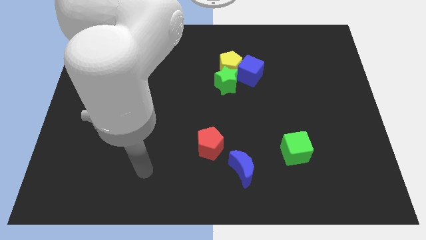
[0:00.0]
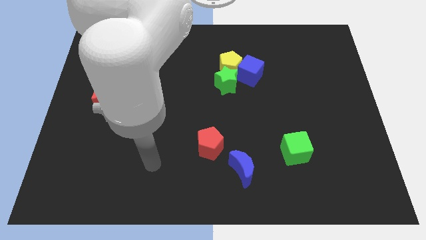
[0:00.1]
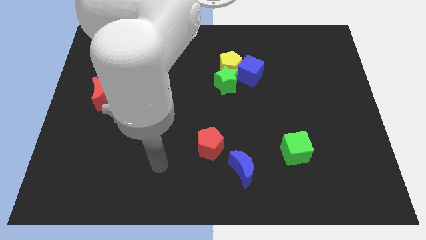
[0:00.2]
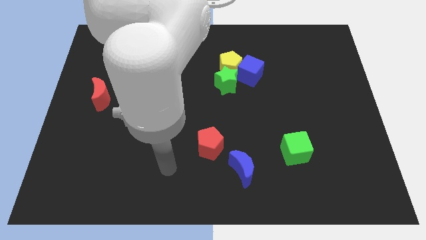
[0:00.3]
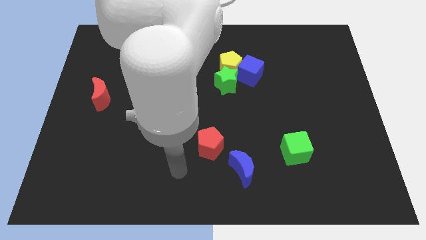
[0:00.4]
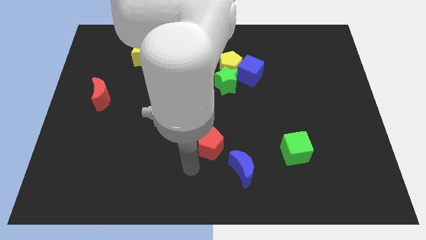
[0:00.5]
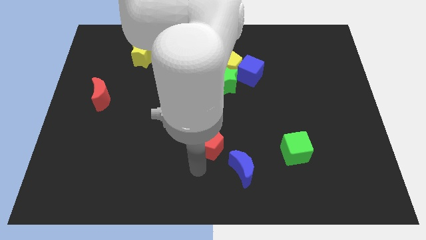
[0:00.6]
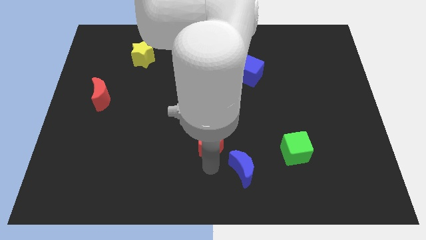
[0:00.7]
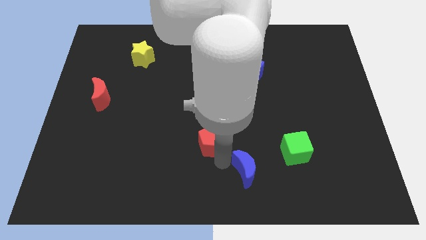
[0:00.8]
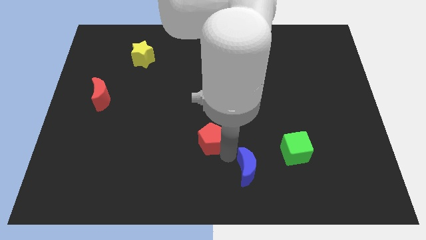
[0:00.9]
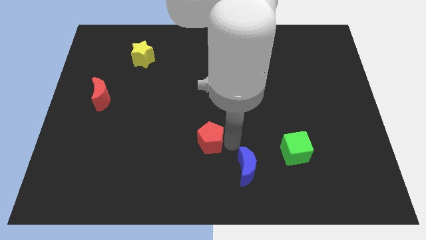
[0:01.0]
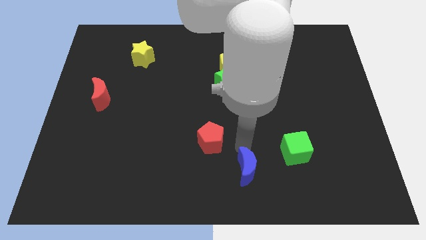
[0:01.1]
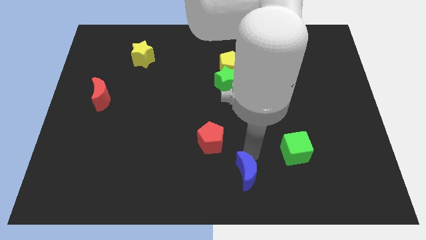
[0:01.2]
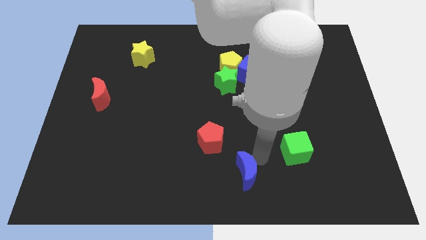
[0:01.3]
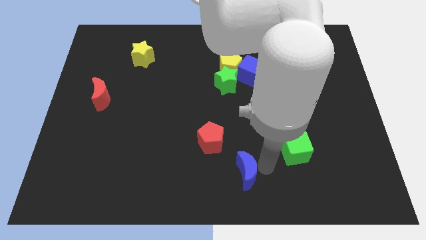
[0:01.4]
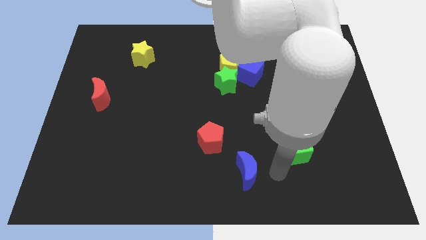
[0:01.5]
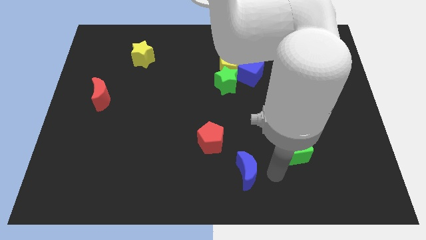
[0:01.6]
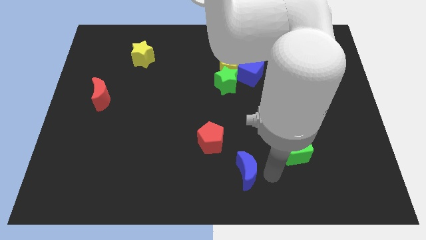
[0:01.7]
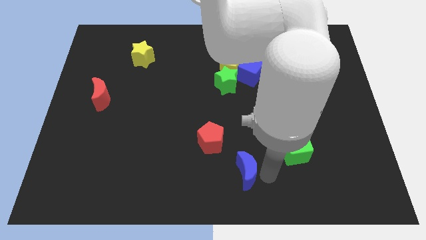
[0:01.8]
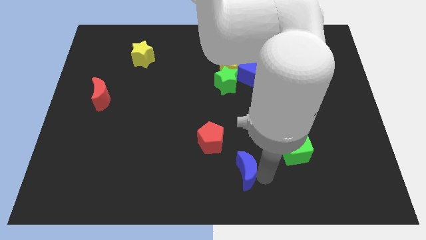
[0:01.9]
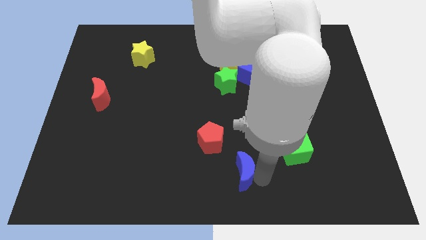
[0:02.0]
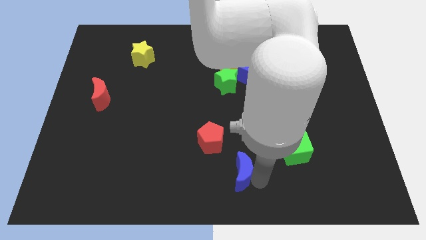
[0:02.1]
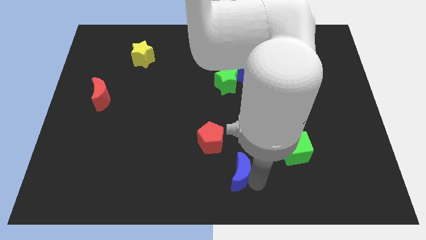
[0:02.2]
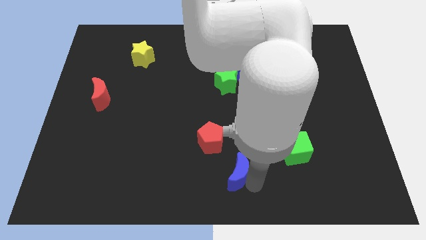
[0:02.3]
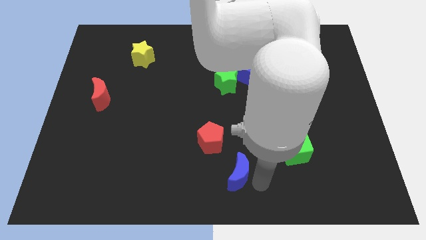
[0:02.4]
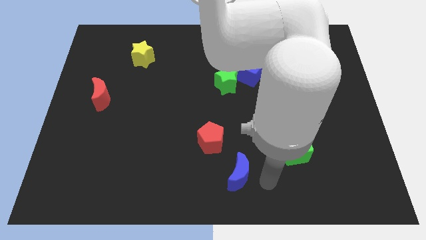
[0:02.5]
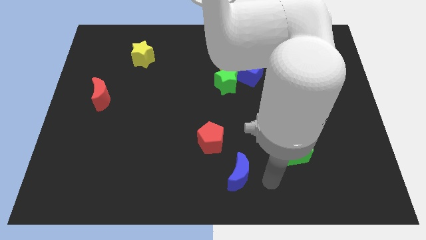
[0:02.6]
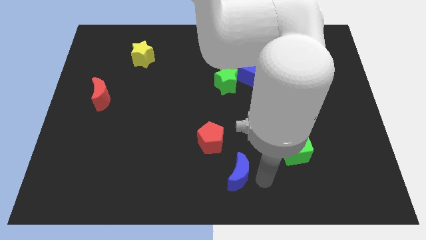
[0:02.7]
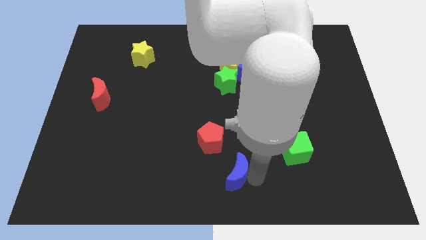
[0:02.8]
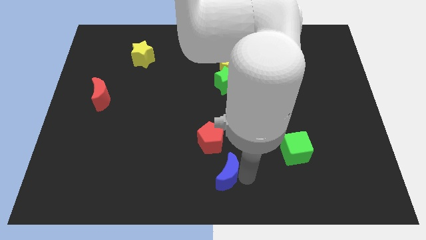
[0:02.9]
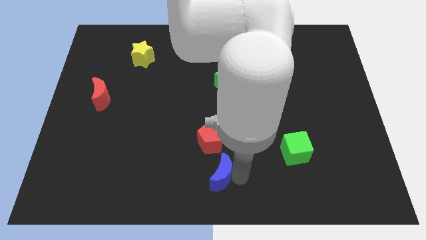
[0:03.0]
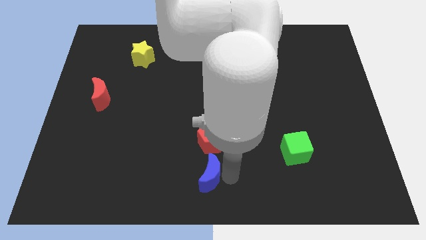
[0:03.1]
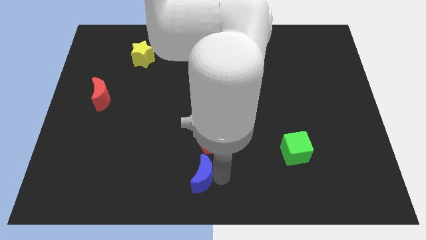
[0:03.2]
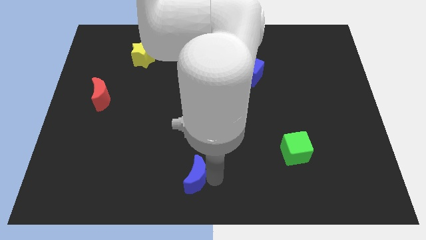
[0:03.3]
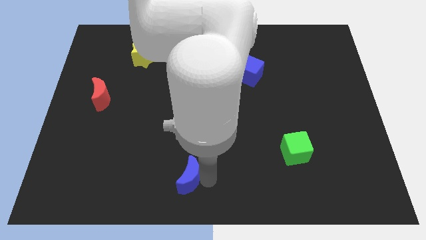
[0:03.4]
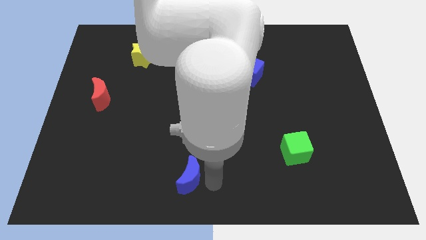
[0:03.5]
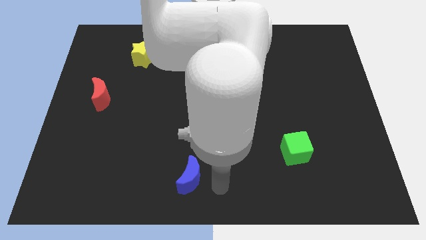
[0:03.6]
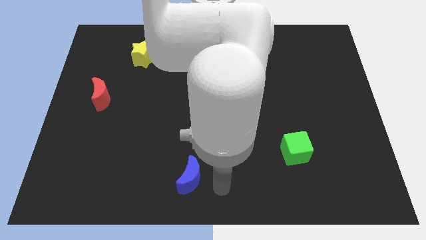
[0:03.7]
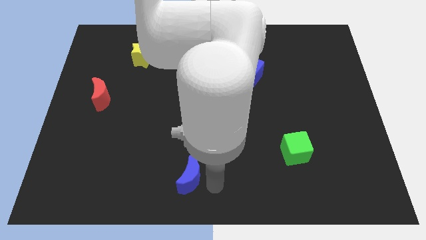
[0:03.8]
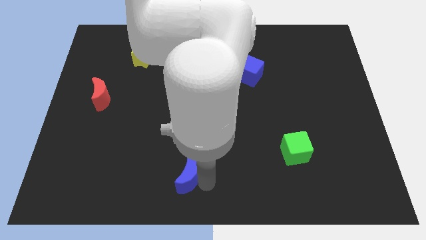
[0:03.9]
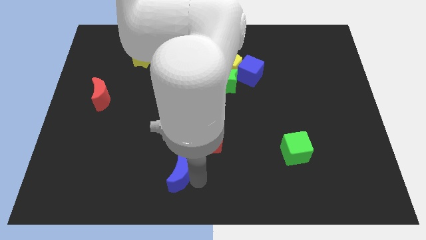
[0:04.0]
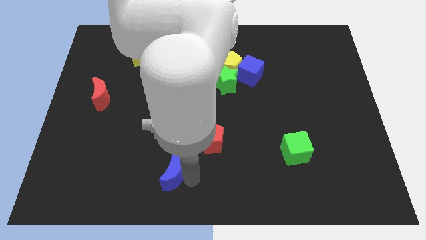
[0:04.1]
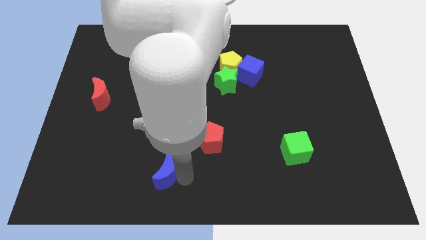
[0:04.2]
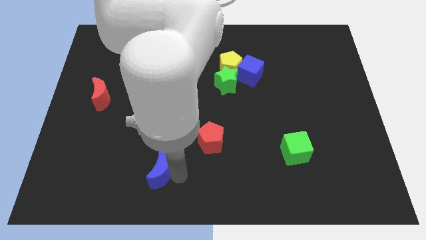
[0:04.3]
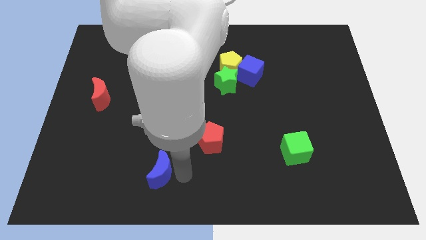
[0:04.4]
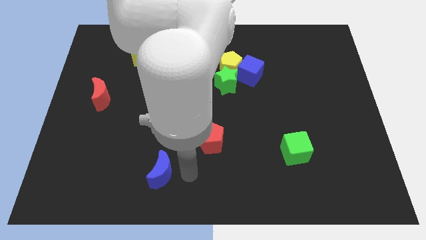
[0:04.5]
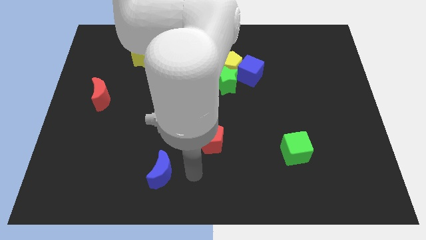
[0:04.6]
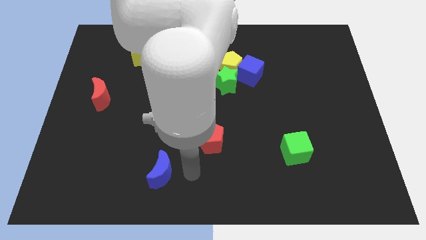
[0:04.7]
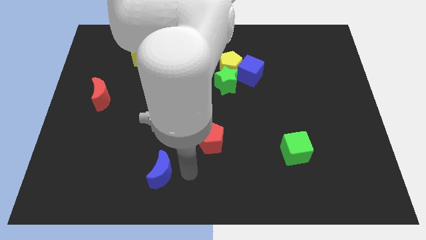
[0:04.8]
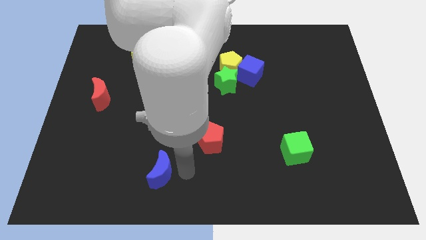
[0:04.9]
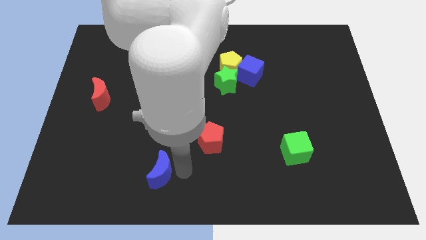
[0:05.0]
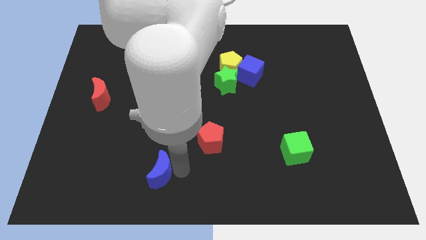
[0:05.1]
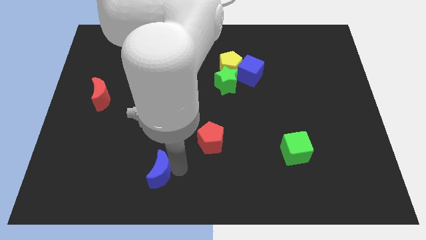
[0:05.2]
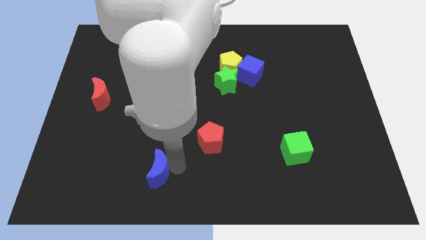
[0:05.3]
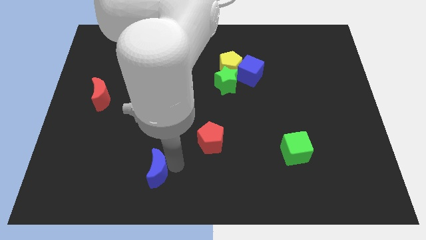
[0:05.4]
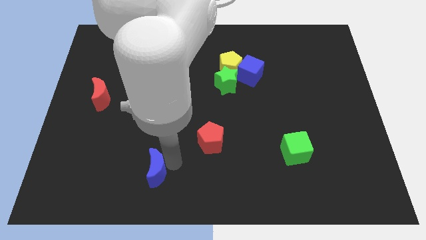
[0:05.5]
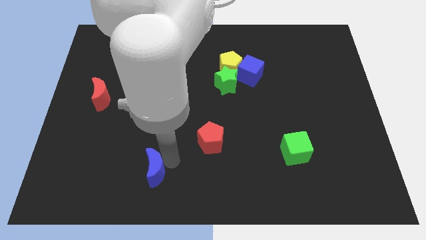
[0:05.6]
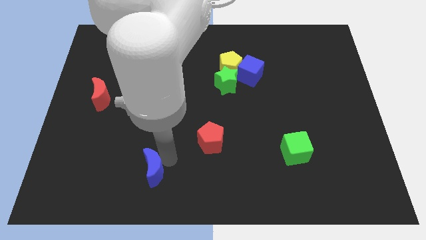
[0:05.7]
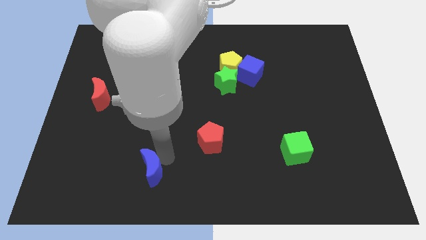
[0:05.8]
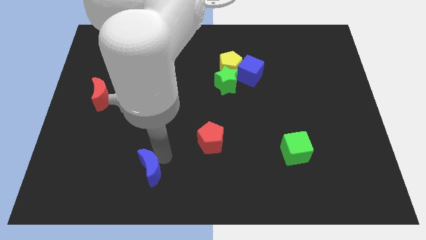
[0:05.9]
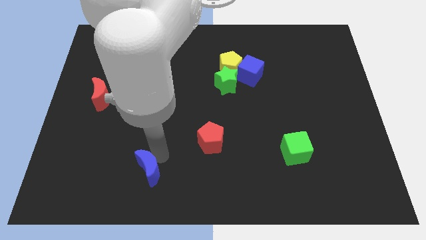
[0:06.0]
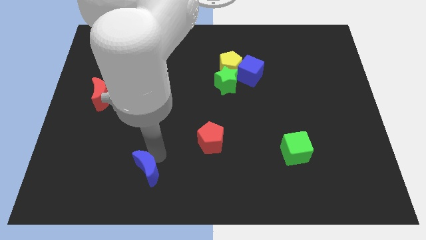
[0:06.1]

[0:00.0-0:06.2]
move the blue moon left

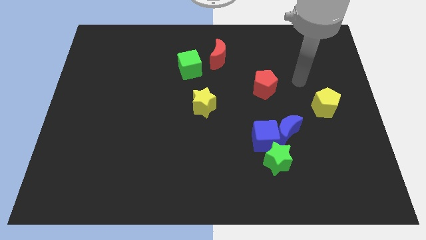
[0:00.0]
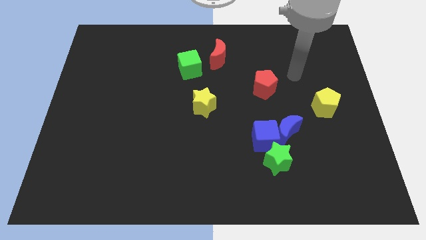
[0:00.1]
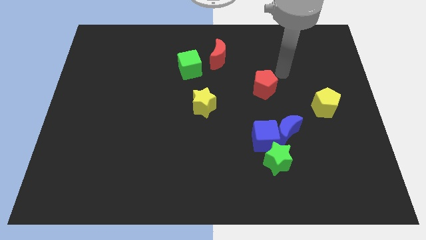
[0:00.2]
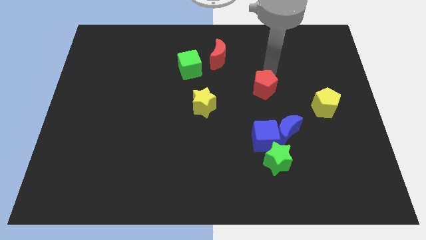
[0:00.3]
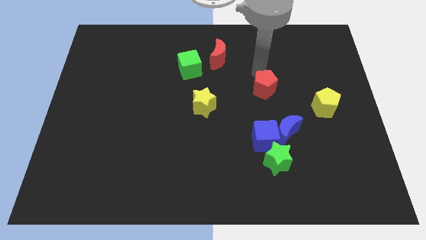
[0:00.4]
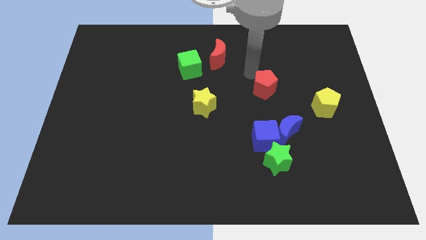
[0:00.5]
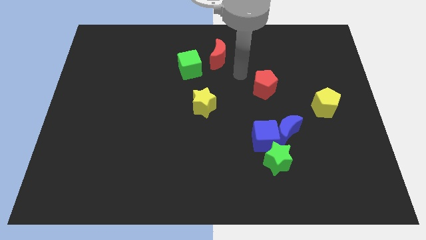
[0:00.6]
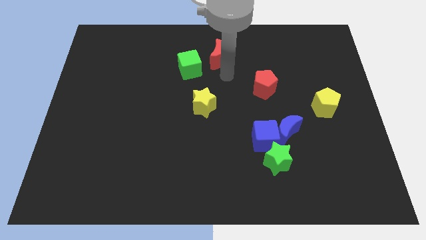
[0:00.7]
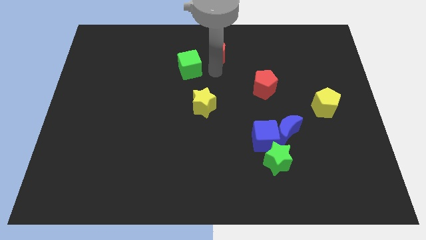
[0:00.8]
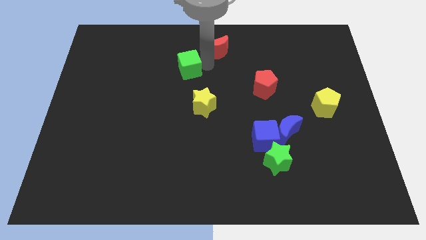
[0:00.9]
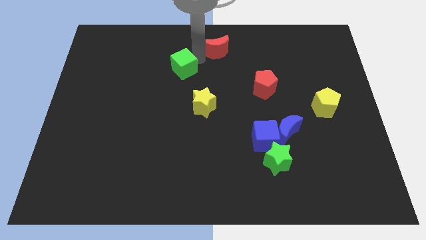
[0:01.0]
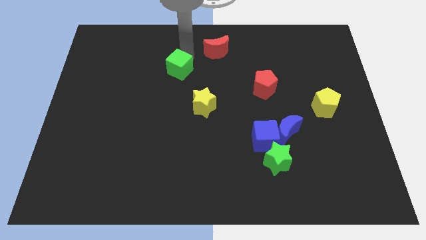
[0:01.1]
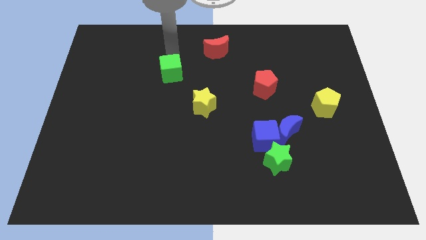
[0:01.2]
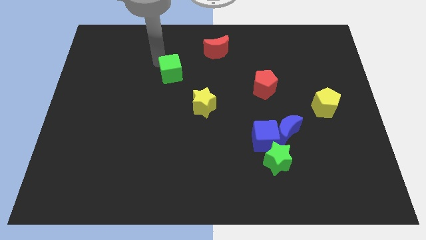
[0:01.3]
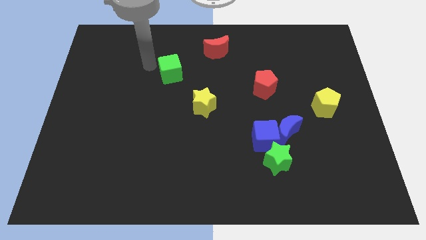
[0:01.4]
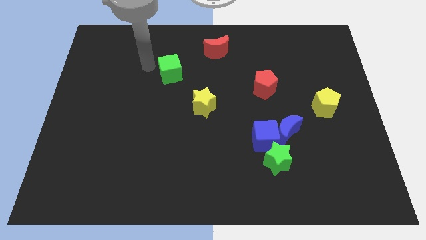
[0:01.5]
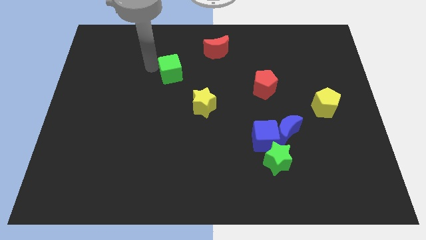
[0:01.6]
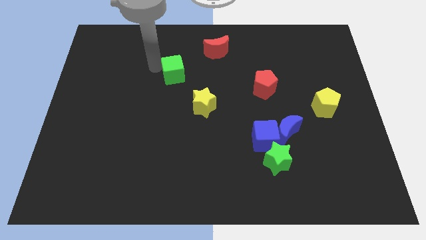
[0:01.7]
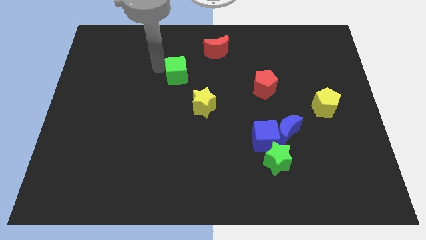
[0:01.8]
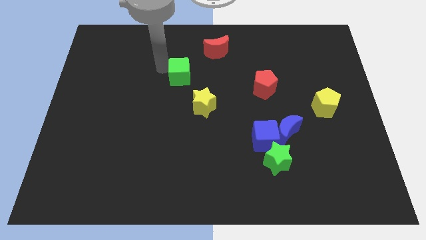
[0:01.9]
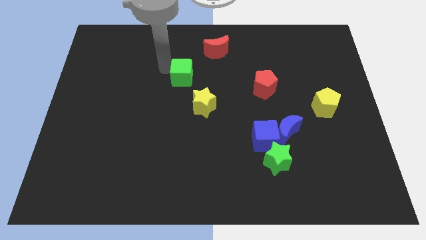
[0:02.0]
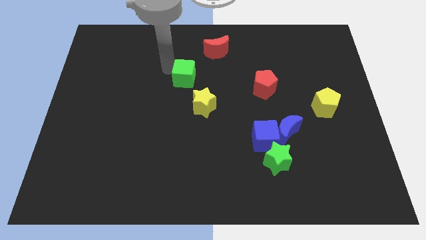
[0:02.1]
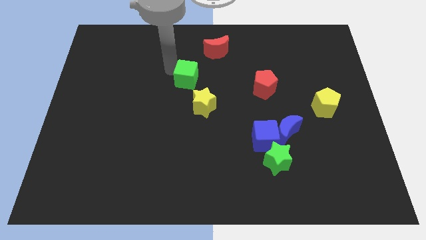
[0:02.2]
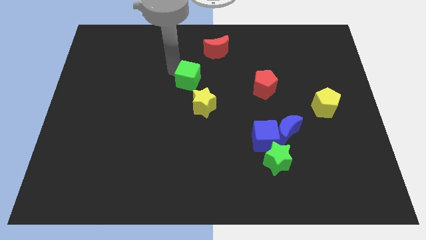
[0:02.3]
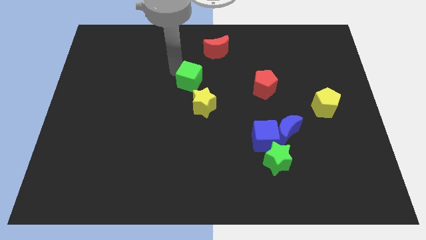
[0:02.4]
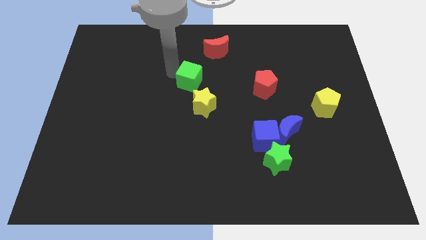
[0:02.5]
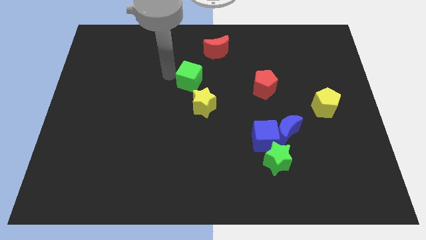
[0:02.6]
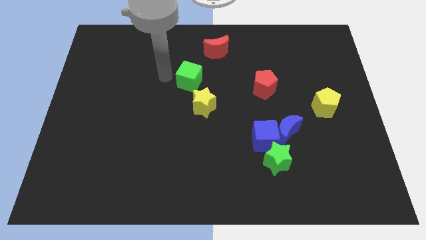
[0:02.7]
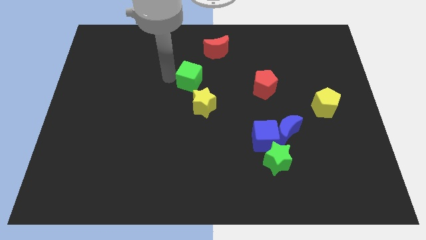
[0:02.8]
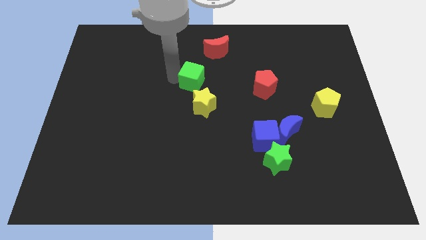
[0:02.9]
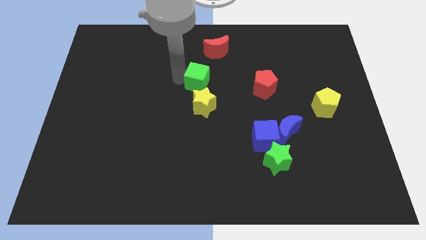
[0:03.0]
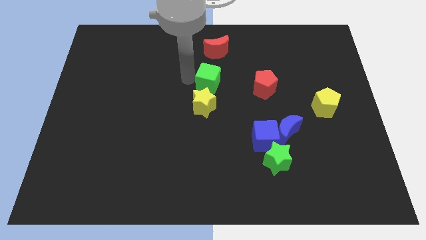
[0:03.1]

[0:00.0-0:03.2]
push the green cube slightly down and to the right diagonally
